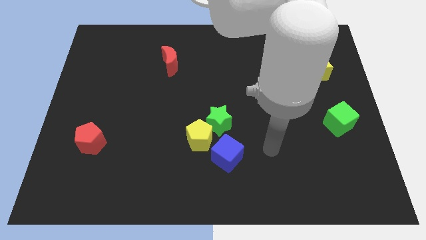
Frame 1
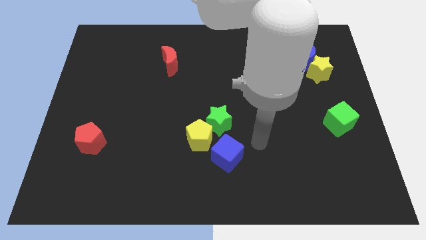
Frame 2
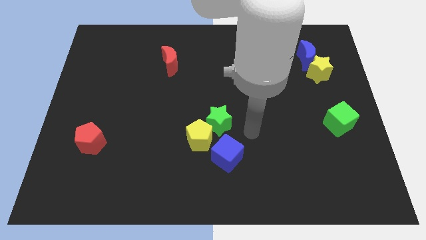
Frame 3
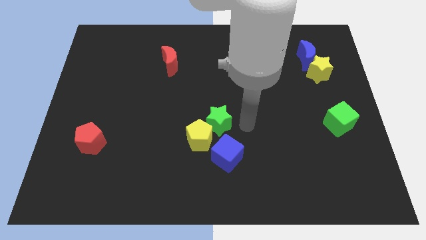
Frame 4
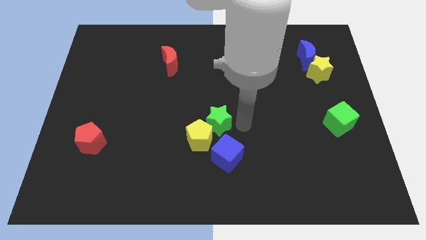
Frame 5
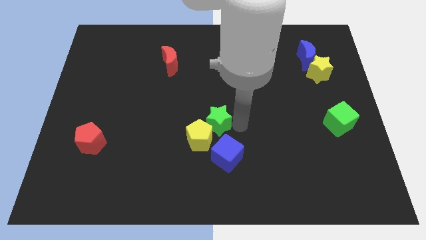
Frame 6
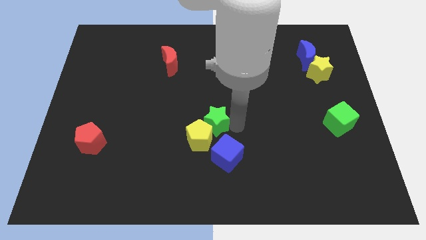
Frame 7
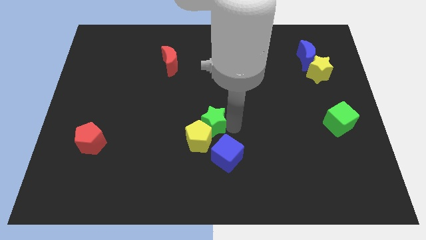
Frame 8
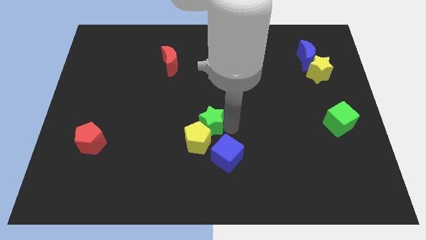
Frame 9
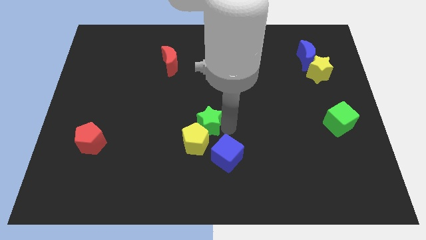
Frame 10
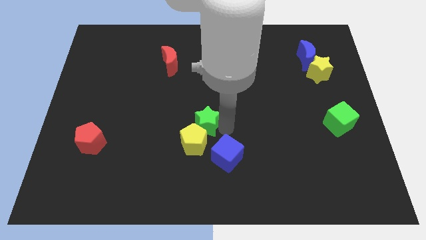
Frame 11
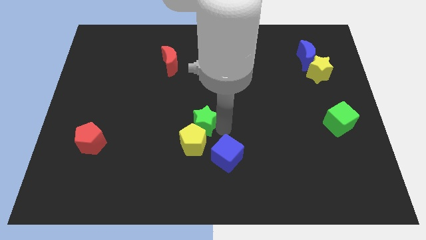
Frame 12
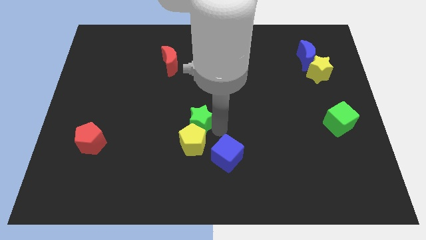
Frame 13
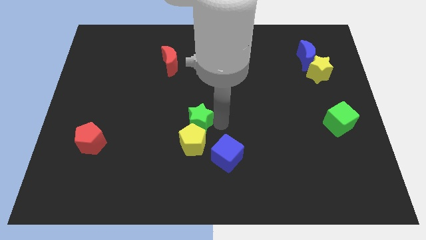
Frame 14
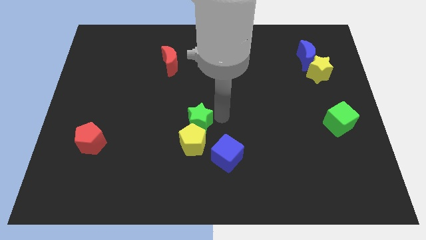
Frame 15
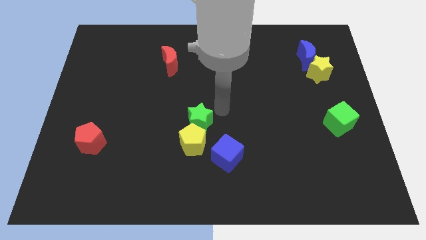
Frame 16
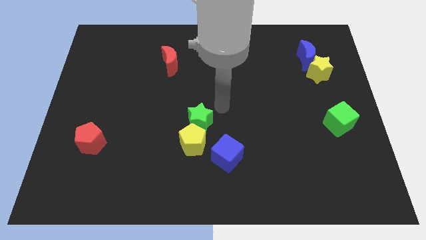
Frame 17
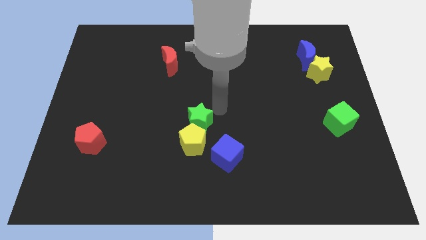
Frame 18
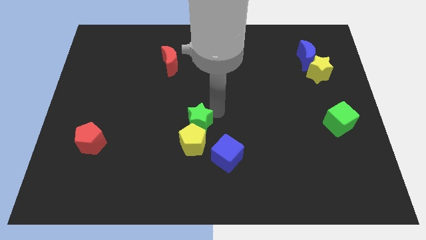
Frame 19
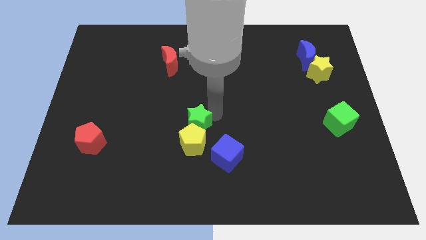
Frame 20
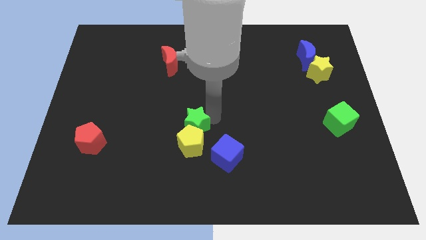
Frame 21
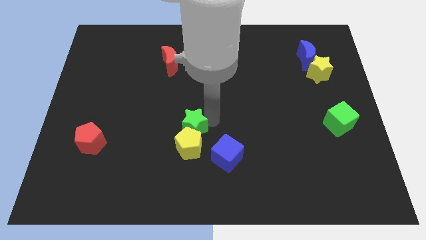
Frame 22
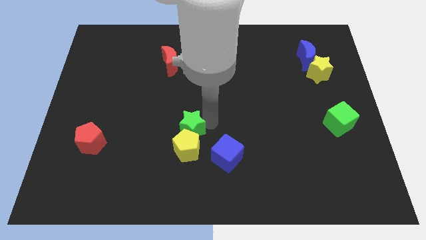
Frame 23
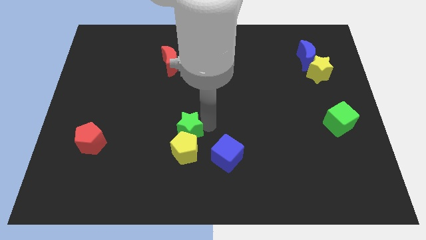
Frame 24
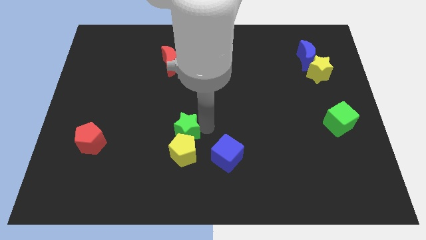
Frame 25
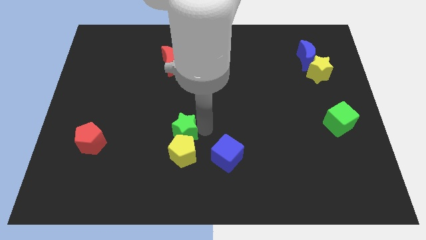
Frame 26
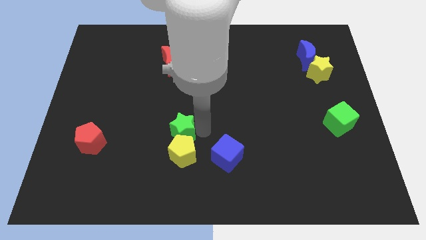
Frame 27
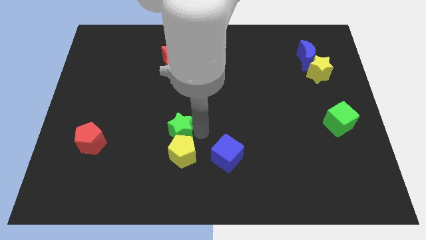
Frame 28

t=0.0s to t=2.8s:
slightly move the green star down and left

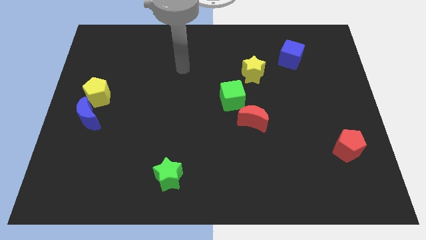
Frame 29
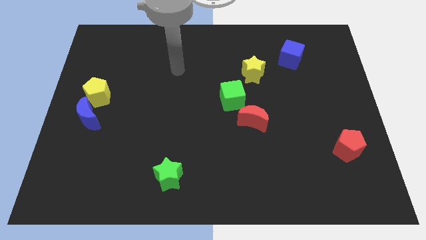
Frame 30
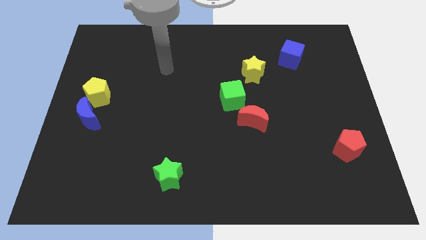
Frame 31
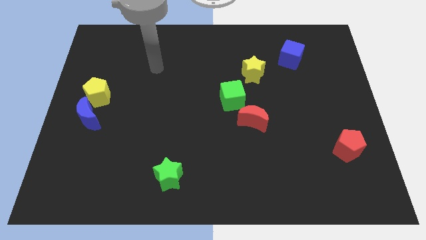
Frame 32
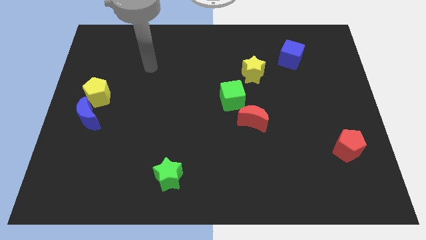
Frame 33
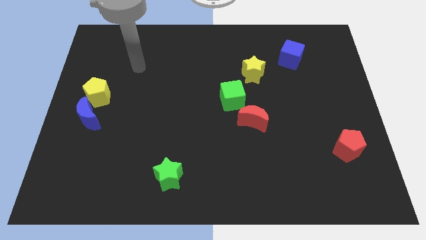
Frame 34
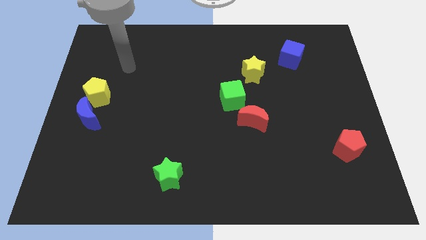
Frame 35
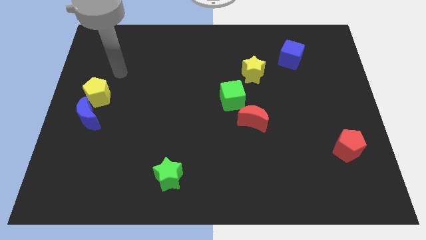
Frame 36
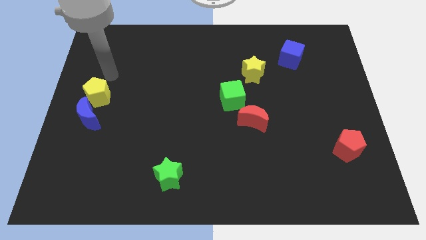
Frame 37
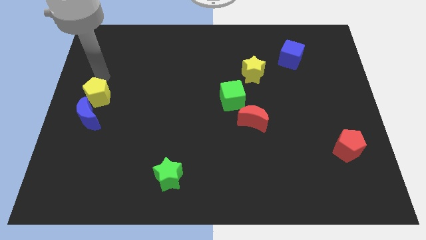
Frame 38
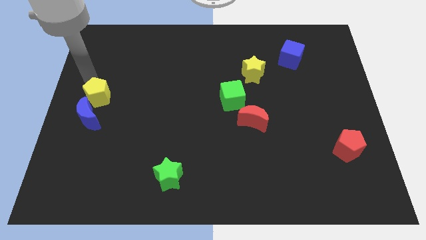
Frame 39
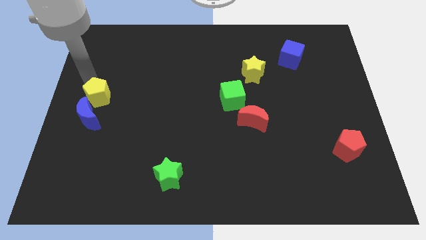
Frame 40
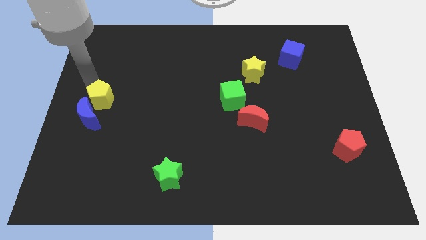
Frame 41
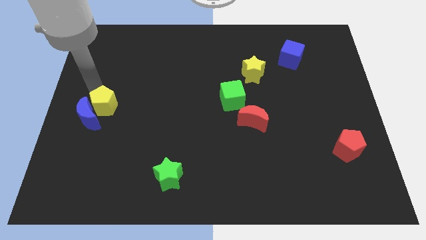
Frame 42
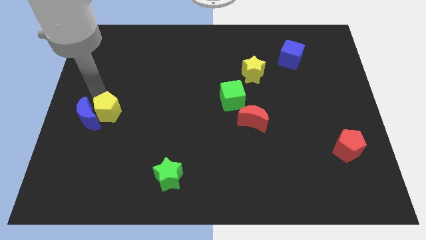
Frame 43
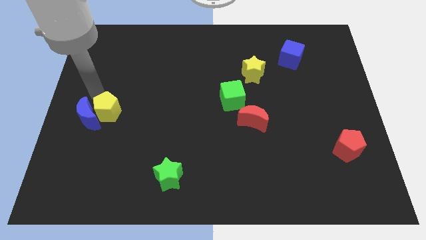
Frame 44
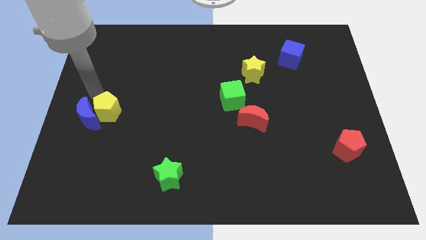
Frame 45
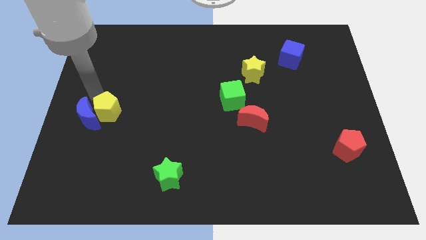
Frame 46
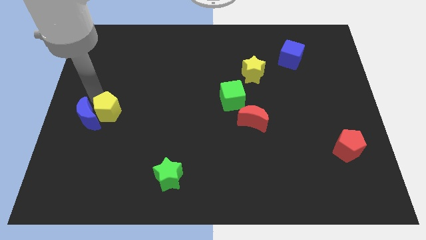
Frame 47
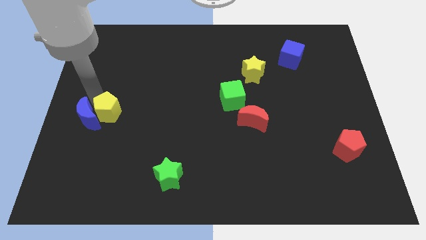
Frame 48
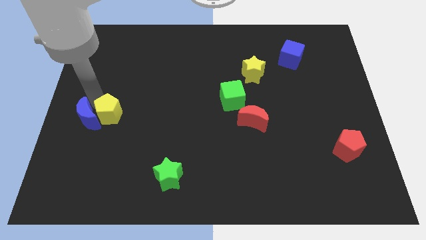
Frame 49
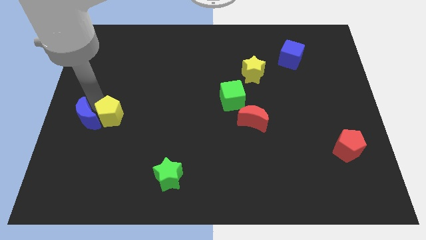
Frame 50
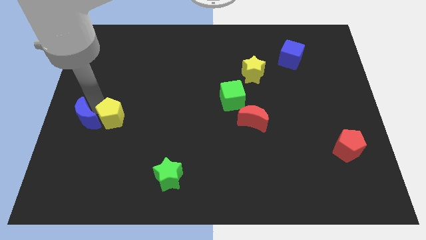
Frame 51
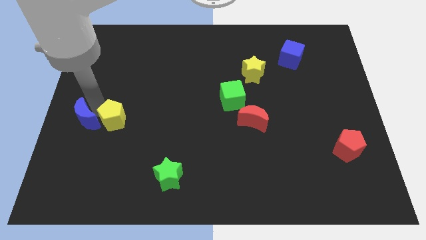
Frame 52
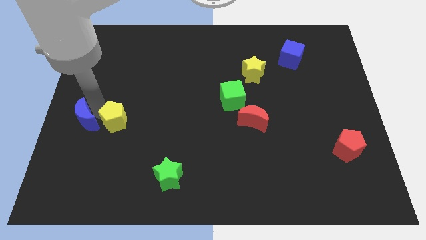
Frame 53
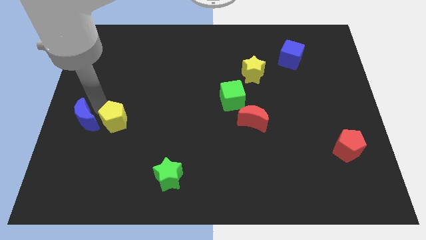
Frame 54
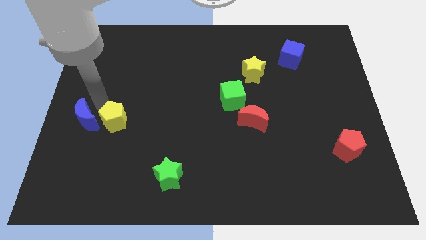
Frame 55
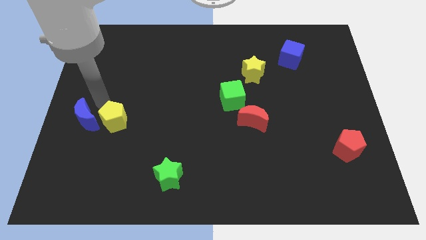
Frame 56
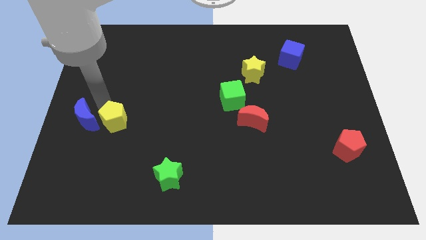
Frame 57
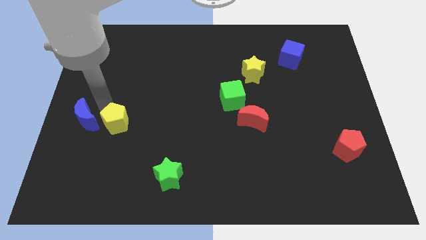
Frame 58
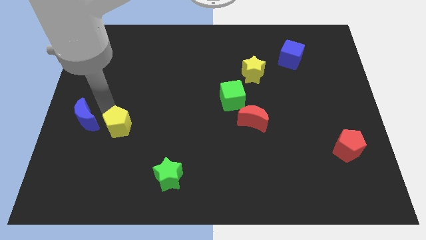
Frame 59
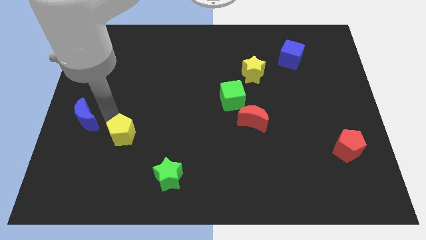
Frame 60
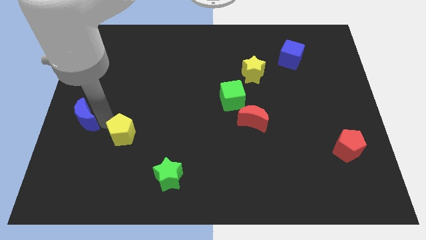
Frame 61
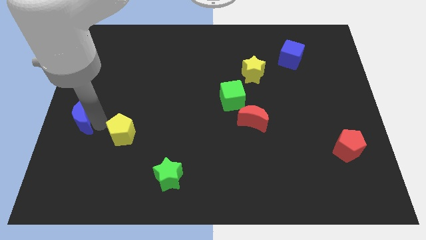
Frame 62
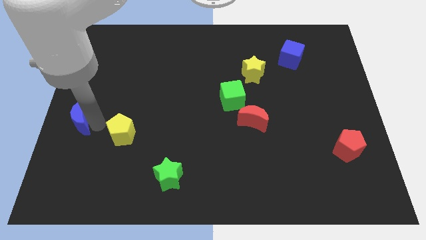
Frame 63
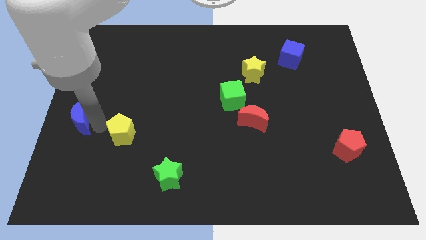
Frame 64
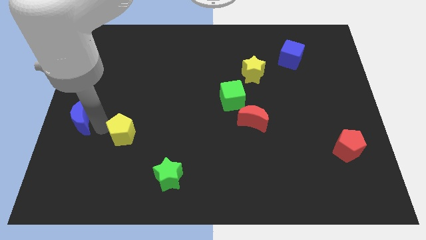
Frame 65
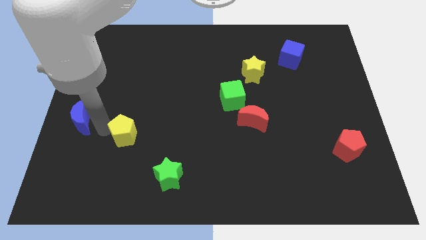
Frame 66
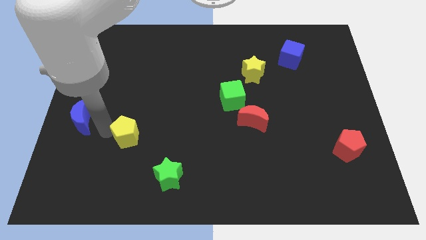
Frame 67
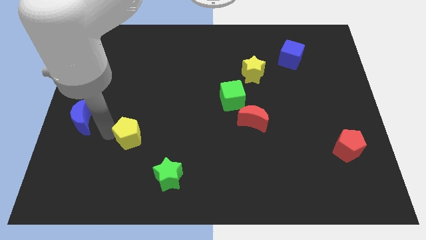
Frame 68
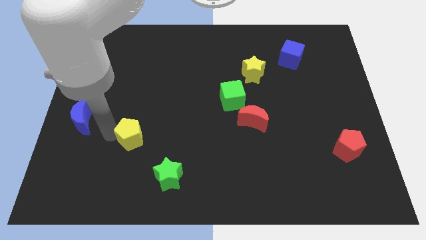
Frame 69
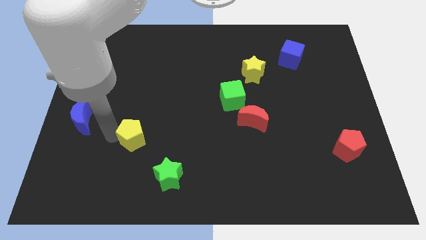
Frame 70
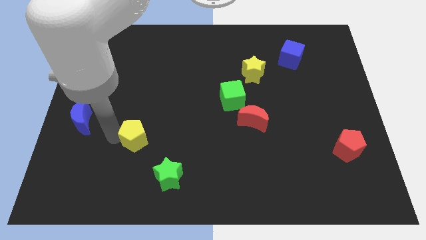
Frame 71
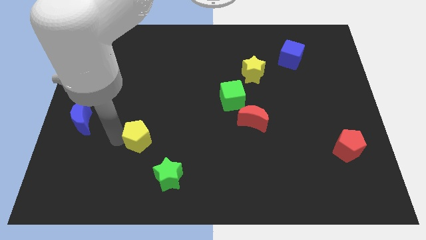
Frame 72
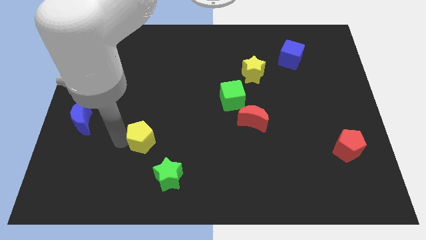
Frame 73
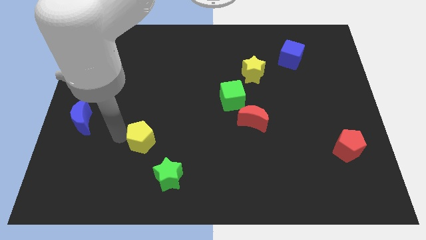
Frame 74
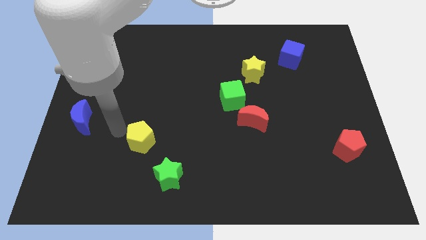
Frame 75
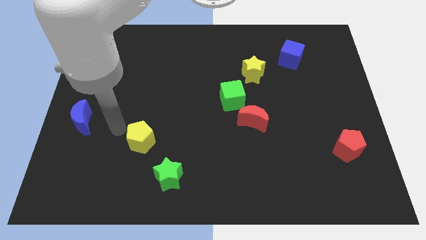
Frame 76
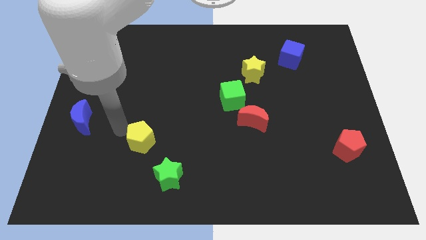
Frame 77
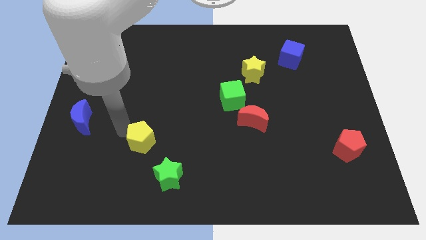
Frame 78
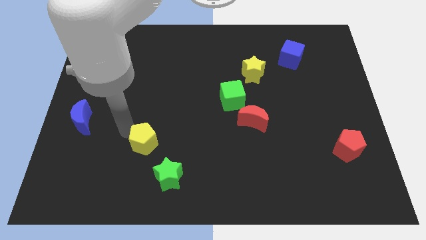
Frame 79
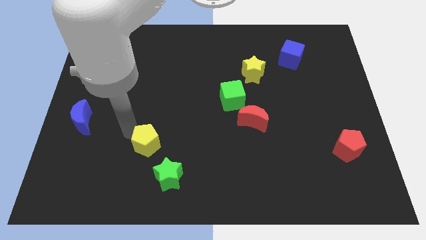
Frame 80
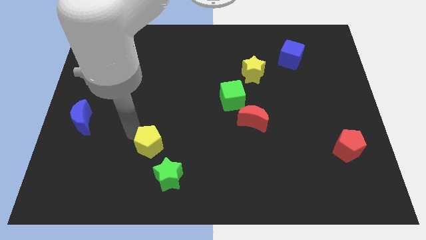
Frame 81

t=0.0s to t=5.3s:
slide the yellow pentagon down and to the right diagonally

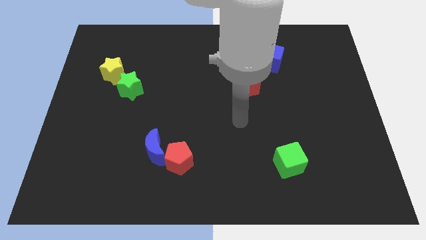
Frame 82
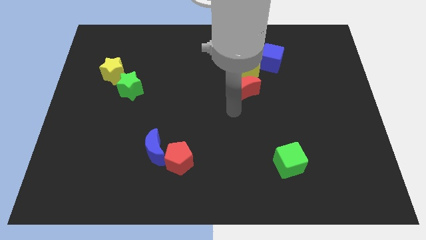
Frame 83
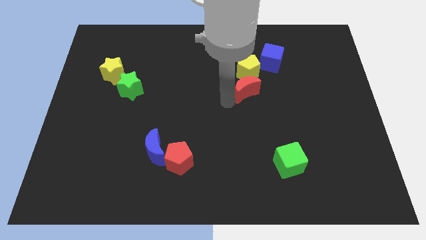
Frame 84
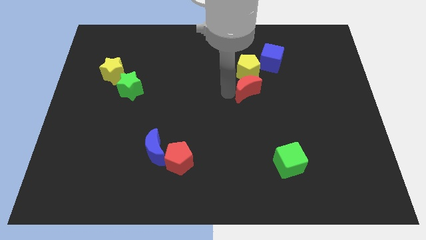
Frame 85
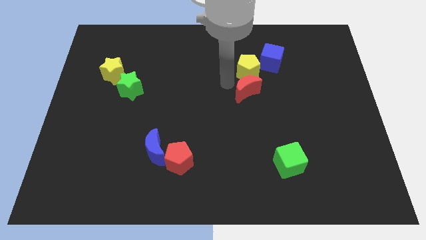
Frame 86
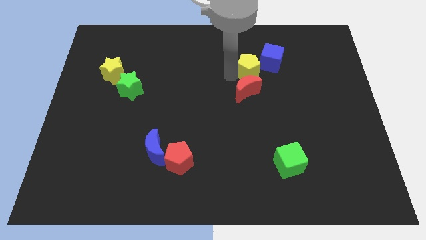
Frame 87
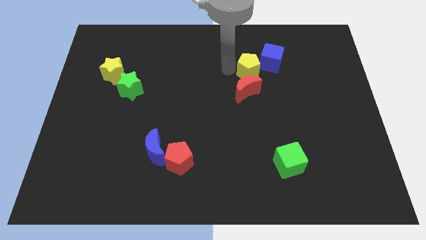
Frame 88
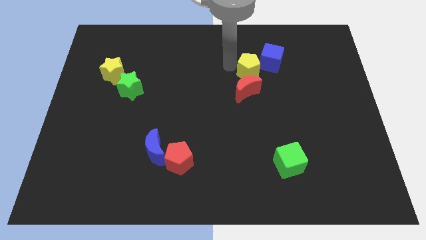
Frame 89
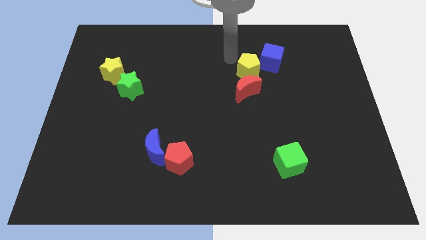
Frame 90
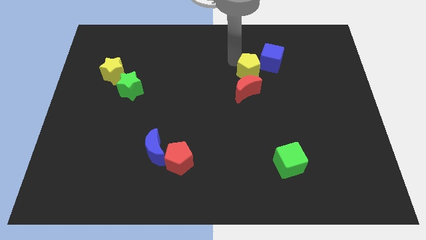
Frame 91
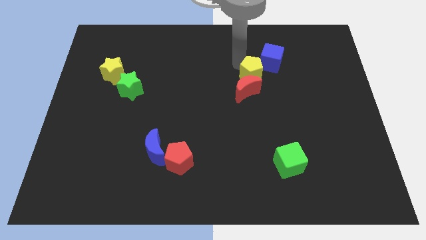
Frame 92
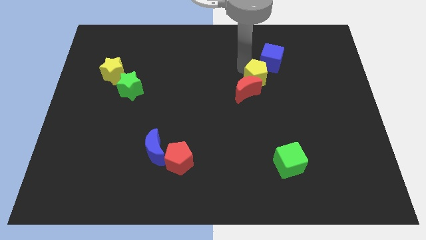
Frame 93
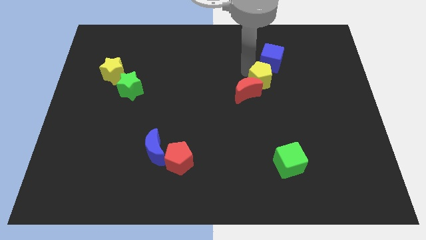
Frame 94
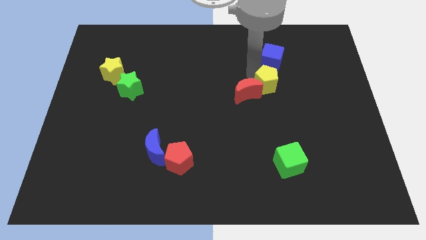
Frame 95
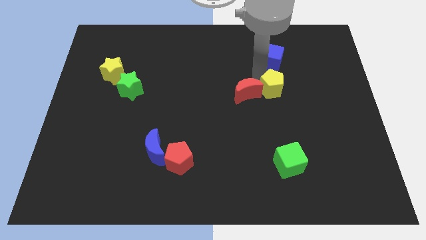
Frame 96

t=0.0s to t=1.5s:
move the yellow pentagon downwards and then to the right slightly
